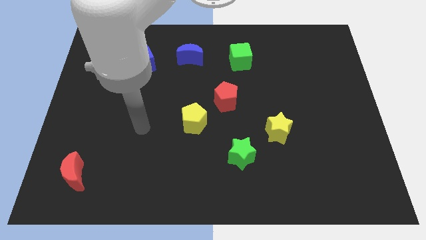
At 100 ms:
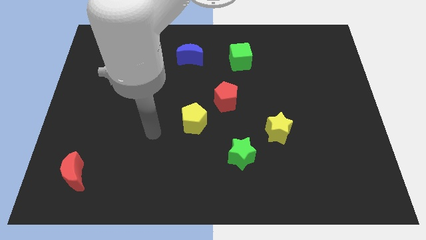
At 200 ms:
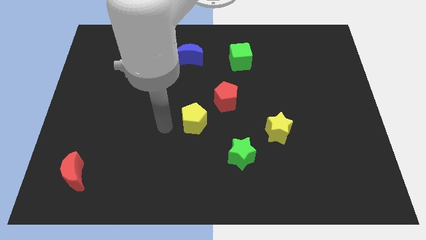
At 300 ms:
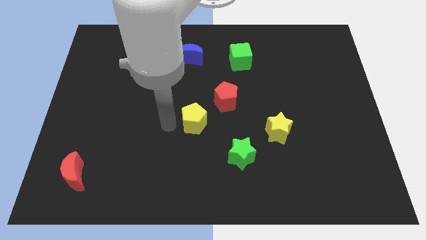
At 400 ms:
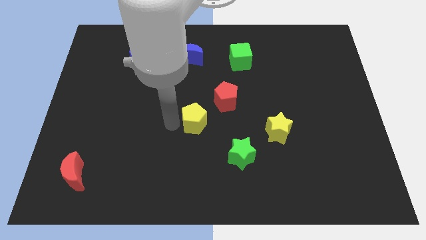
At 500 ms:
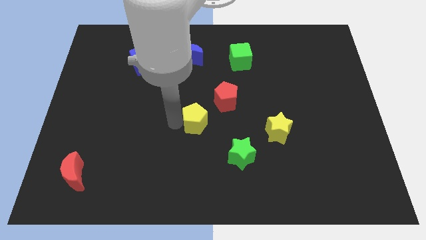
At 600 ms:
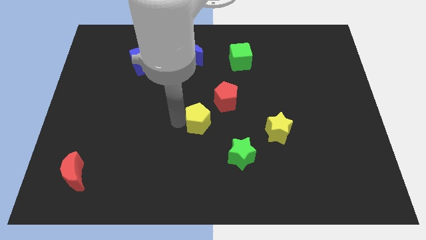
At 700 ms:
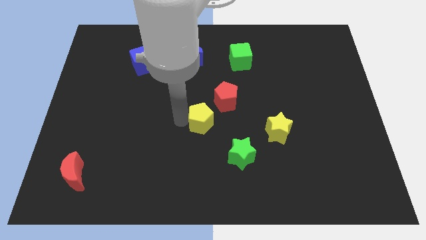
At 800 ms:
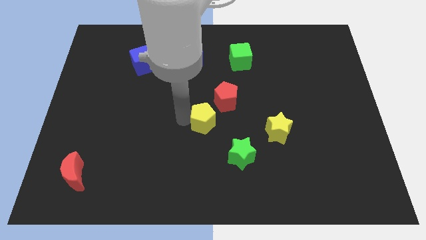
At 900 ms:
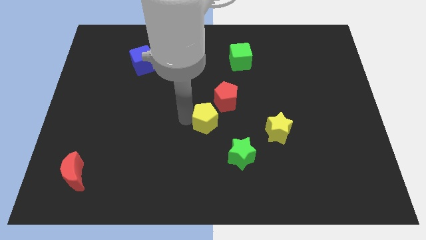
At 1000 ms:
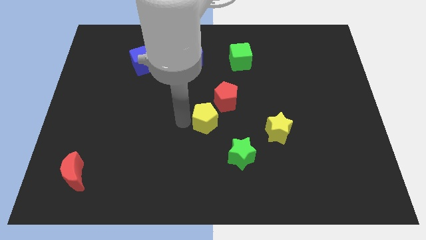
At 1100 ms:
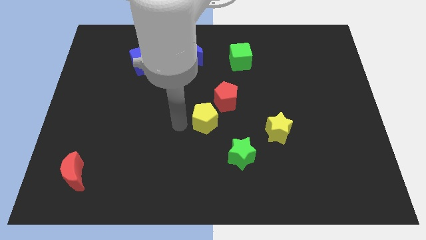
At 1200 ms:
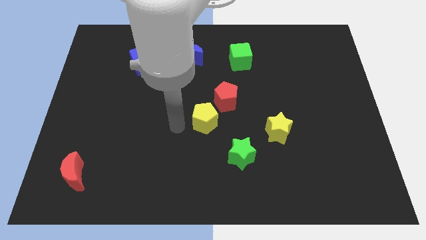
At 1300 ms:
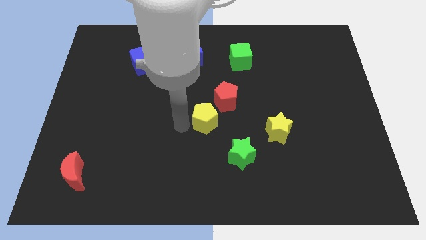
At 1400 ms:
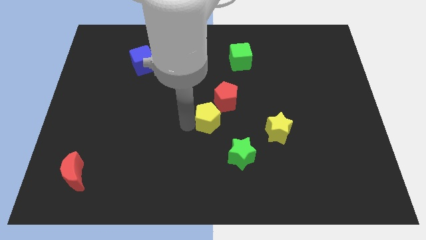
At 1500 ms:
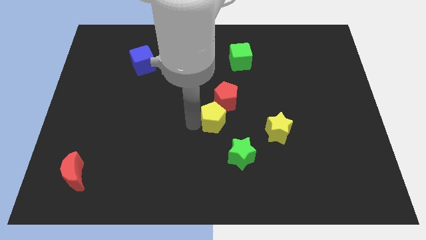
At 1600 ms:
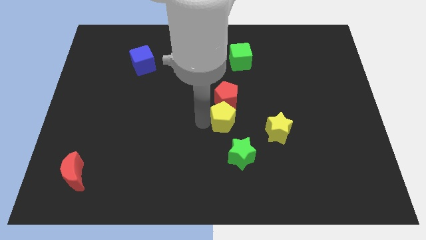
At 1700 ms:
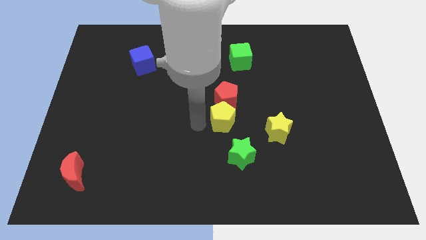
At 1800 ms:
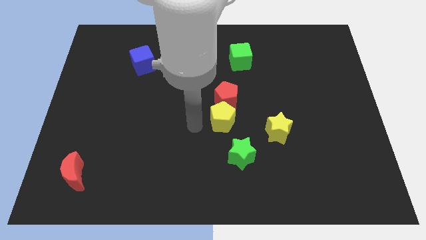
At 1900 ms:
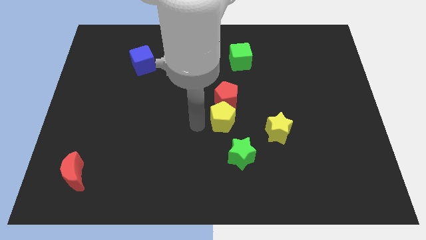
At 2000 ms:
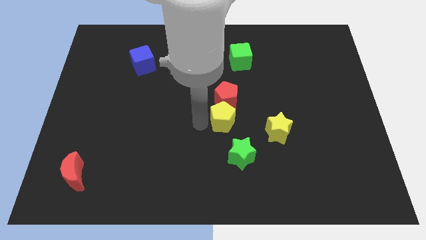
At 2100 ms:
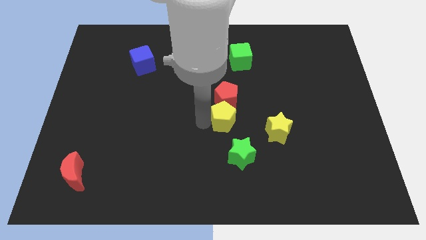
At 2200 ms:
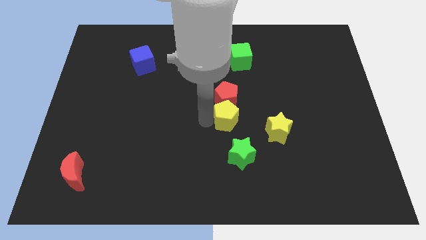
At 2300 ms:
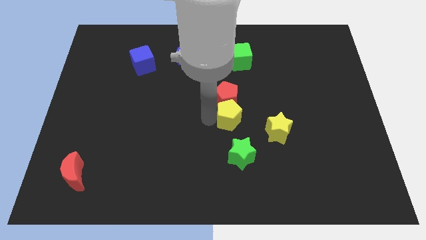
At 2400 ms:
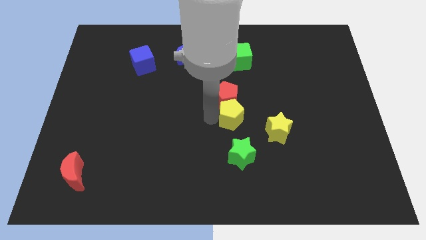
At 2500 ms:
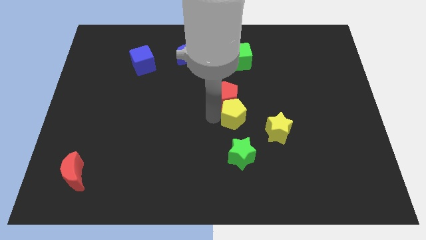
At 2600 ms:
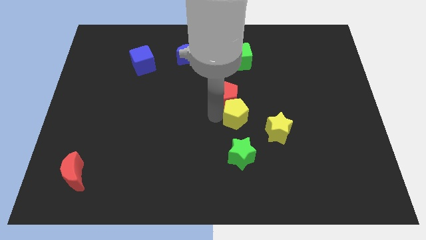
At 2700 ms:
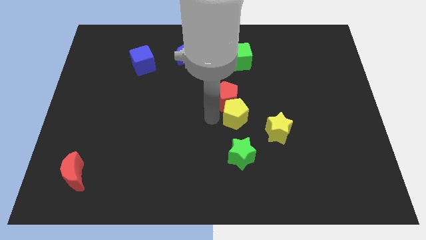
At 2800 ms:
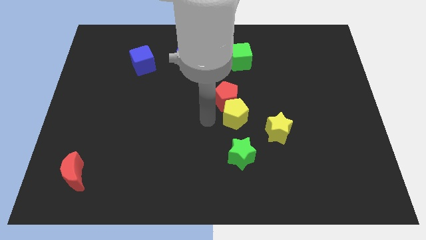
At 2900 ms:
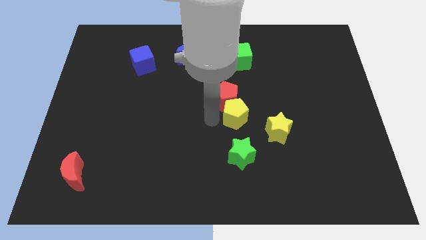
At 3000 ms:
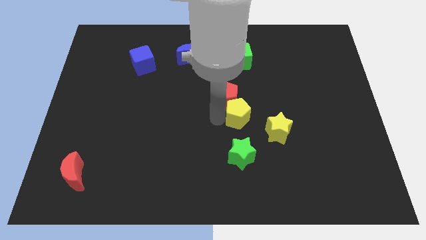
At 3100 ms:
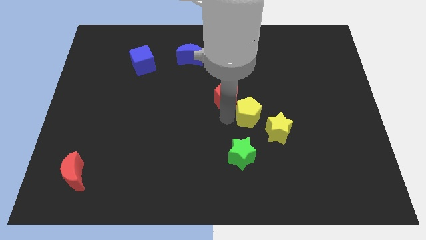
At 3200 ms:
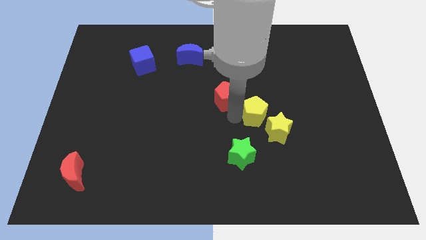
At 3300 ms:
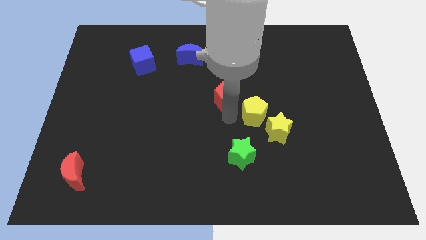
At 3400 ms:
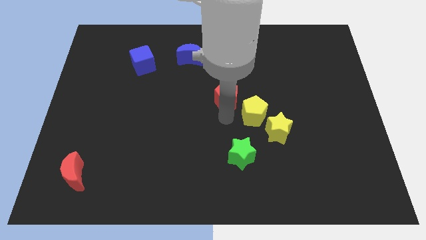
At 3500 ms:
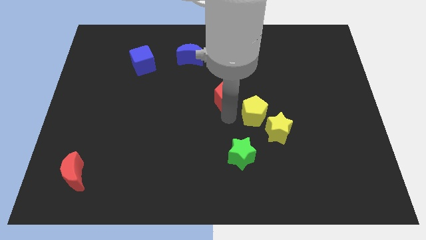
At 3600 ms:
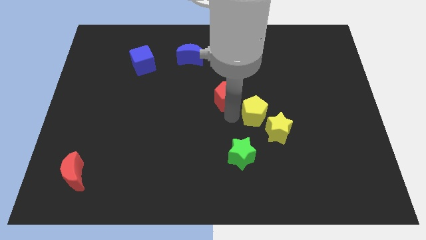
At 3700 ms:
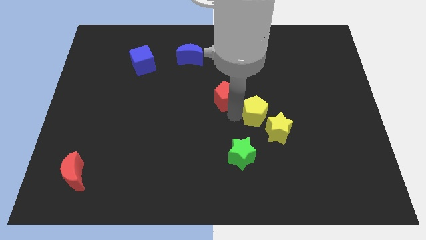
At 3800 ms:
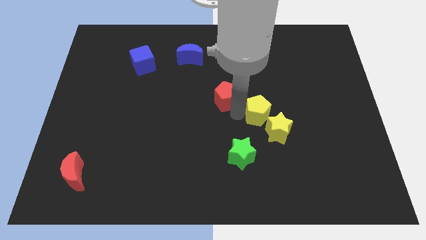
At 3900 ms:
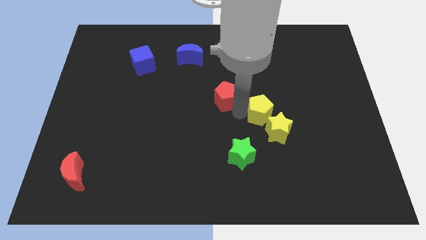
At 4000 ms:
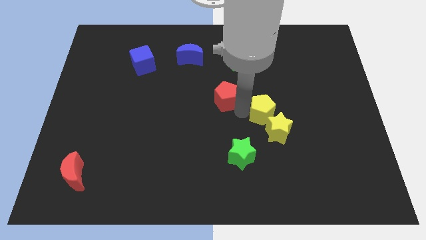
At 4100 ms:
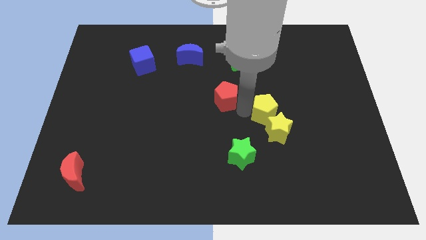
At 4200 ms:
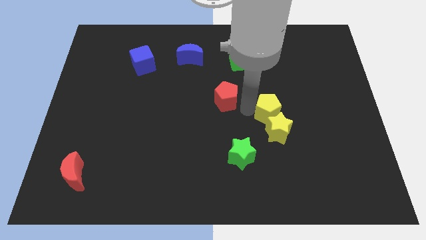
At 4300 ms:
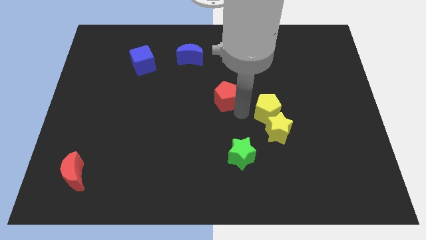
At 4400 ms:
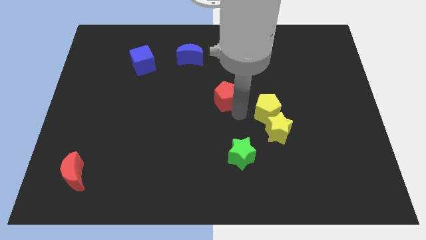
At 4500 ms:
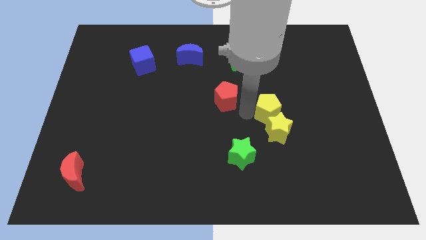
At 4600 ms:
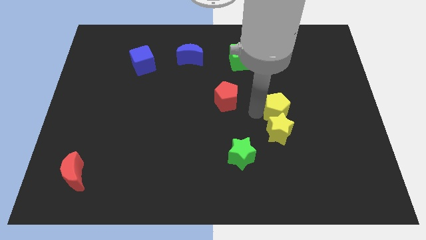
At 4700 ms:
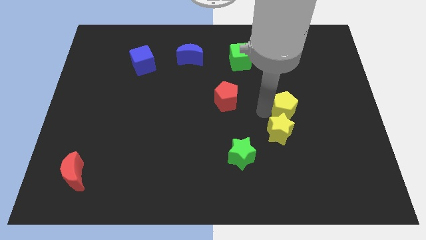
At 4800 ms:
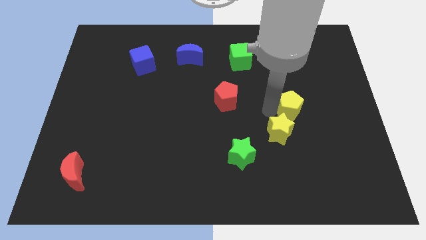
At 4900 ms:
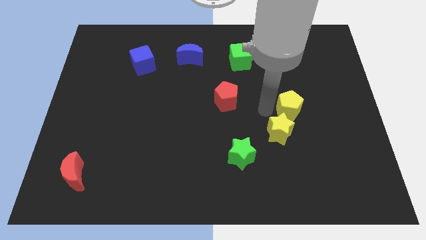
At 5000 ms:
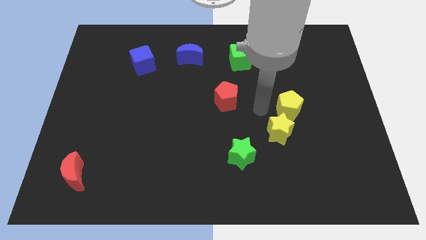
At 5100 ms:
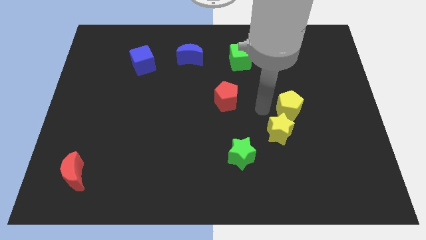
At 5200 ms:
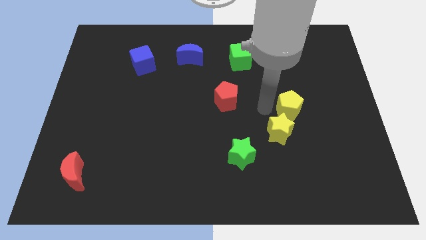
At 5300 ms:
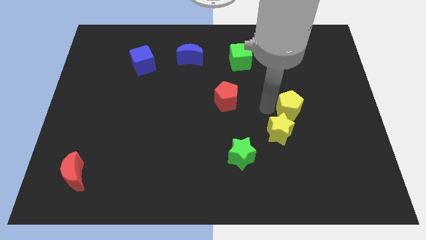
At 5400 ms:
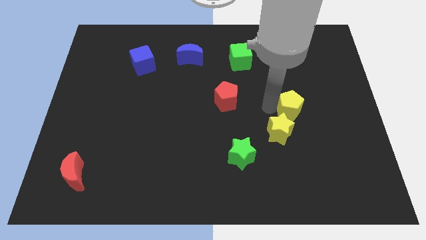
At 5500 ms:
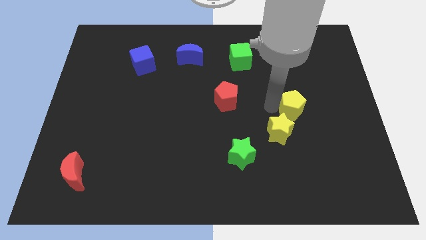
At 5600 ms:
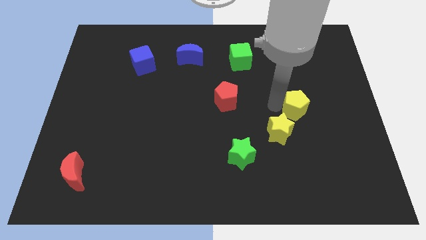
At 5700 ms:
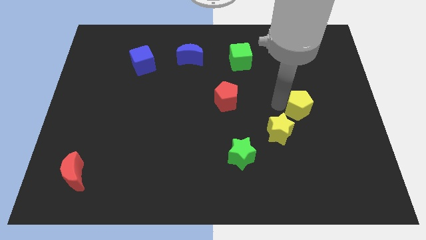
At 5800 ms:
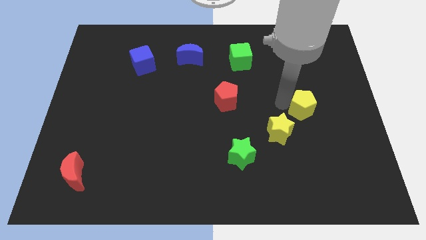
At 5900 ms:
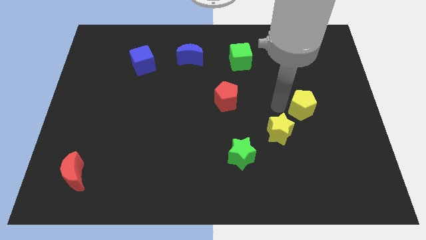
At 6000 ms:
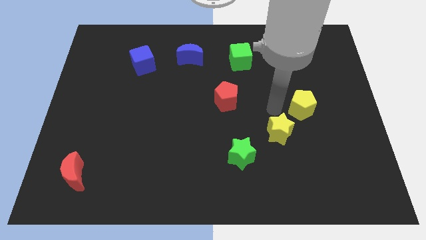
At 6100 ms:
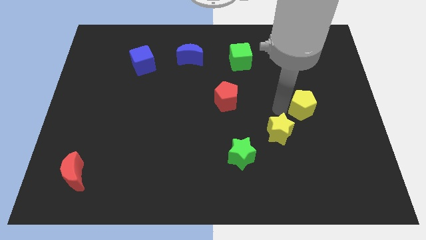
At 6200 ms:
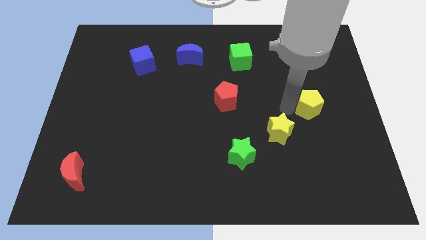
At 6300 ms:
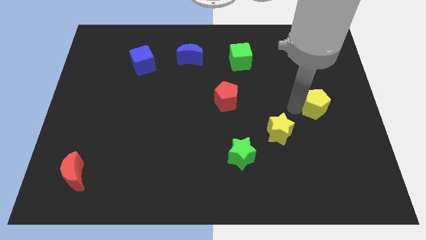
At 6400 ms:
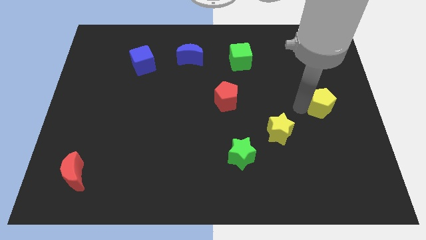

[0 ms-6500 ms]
slide the yellow pentagon to the right side
